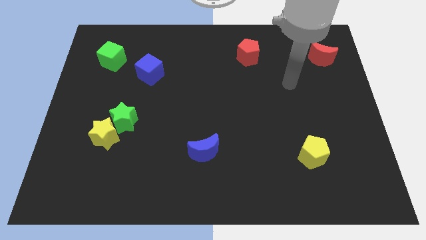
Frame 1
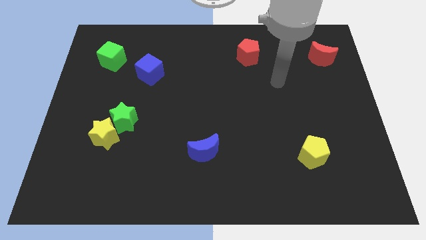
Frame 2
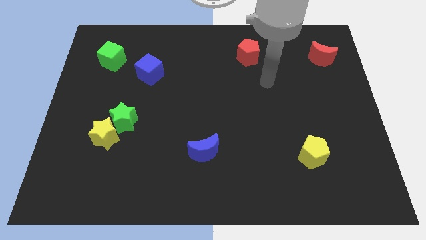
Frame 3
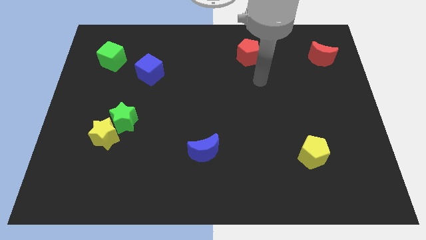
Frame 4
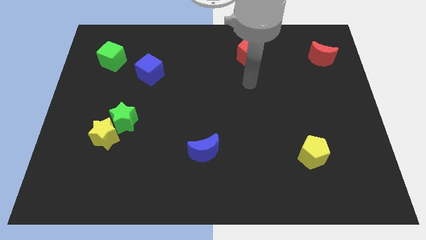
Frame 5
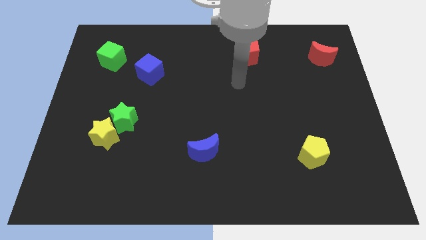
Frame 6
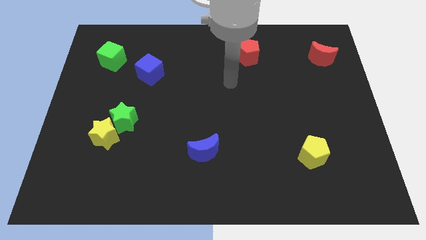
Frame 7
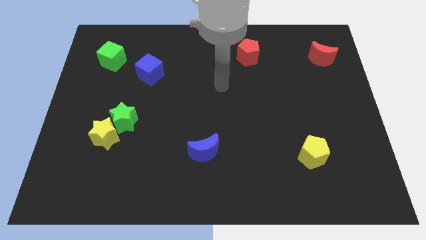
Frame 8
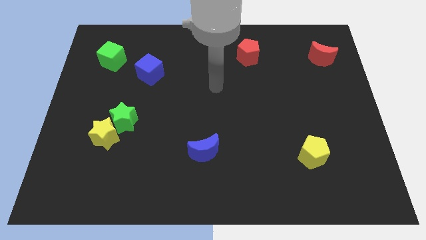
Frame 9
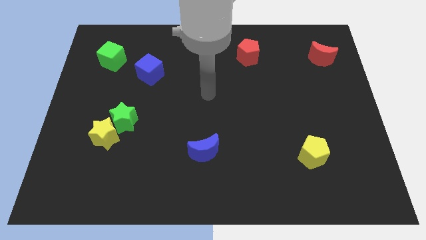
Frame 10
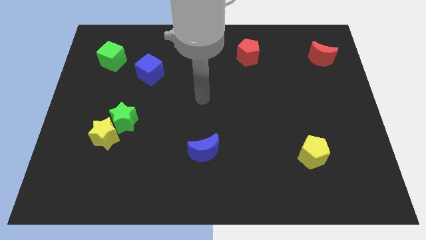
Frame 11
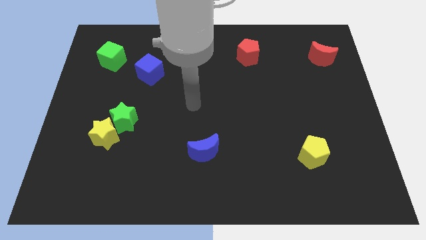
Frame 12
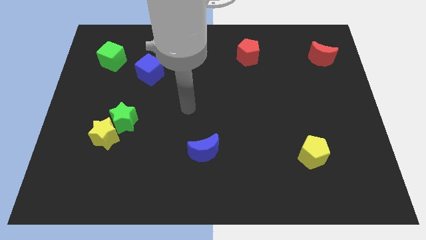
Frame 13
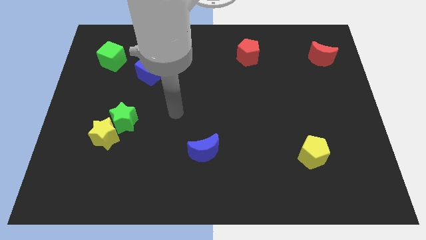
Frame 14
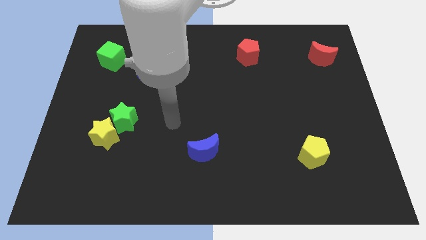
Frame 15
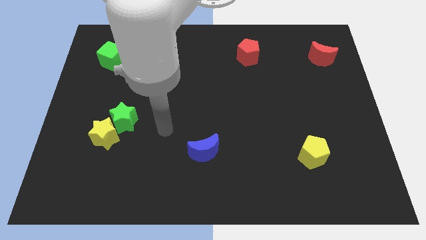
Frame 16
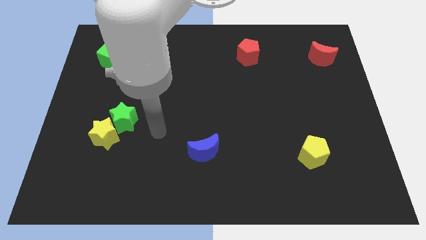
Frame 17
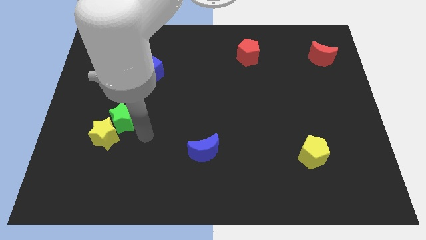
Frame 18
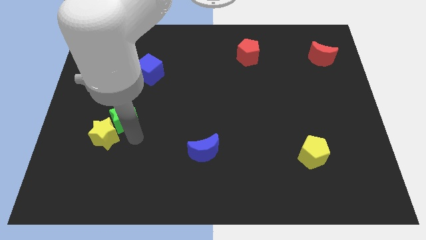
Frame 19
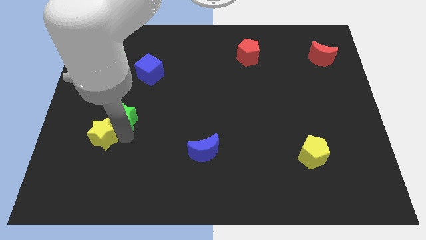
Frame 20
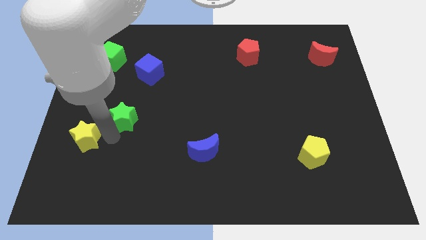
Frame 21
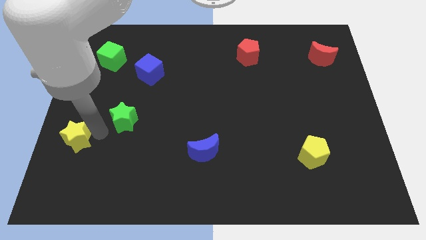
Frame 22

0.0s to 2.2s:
separate the green star from the yellow star

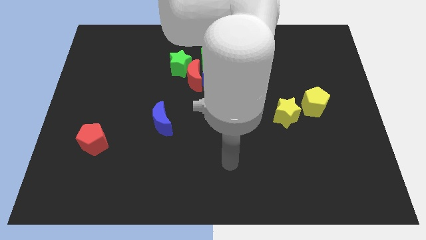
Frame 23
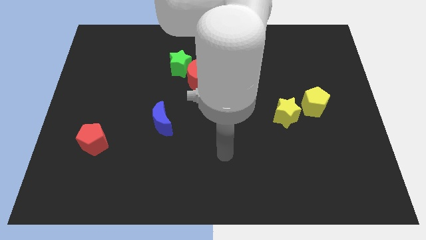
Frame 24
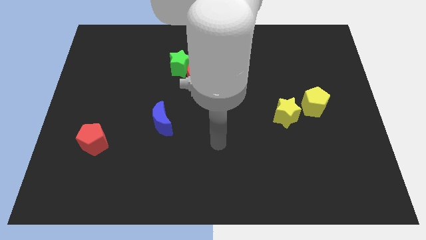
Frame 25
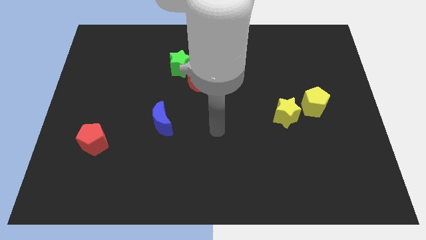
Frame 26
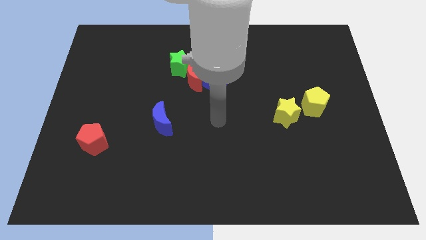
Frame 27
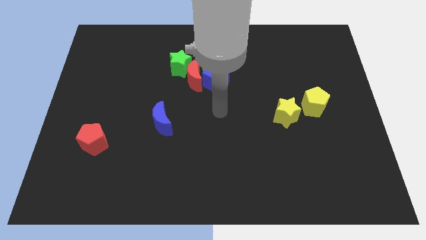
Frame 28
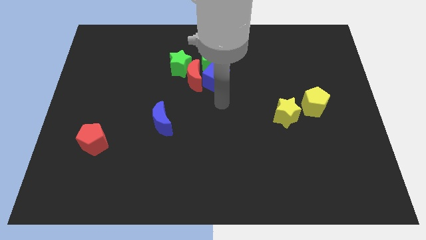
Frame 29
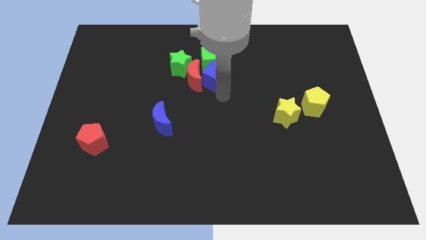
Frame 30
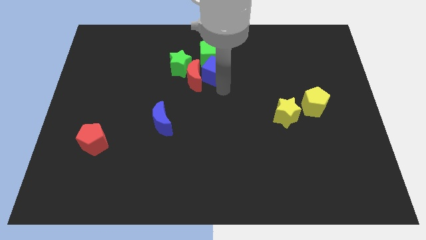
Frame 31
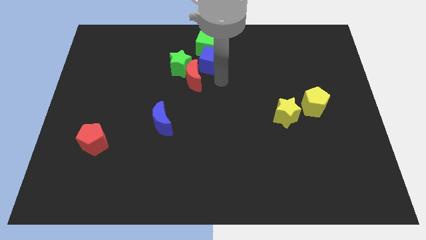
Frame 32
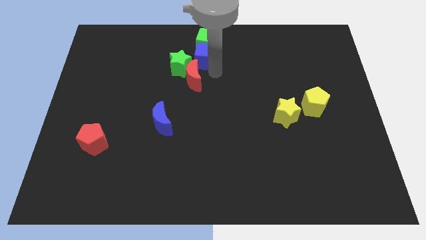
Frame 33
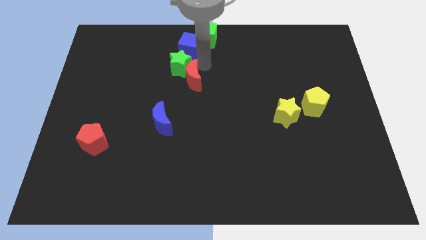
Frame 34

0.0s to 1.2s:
pull the red moon apart from the blue cube, green star, and green cube

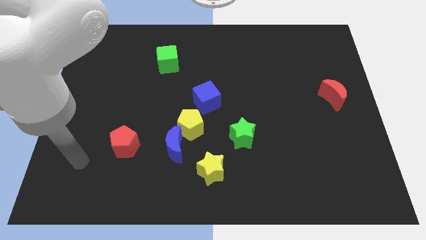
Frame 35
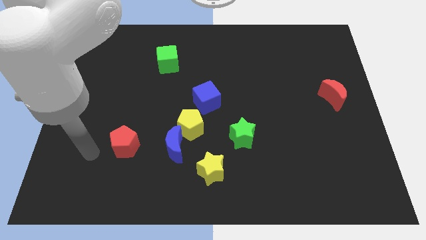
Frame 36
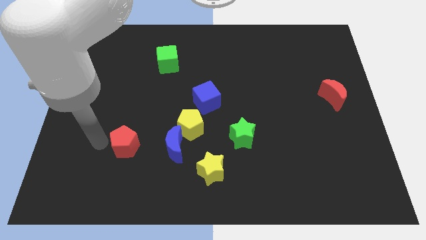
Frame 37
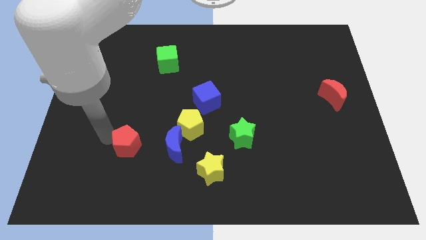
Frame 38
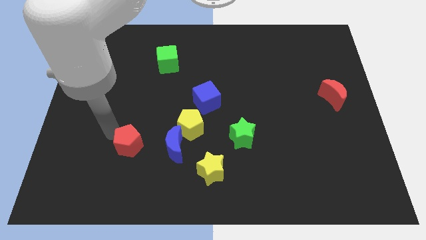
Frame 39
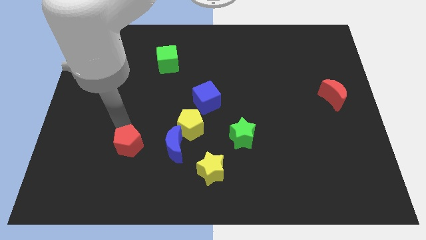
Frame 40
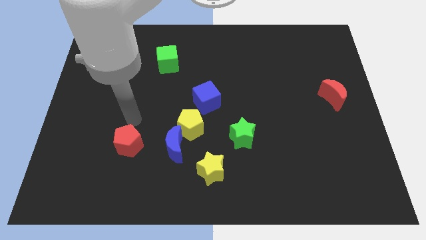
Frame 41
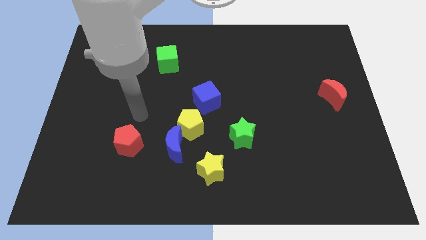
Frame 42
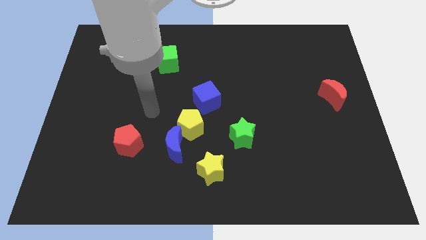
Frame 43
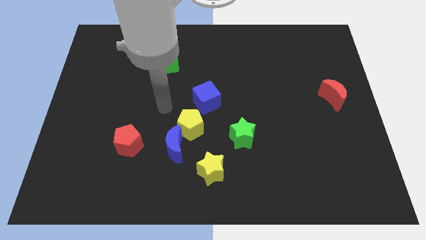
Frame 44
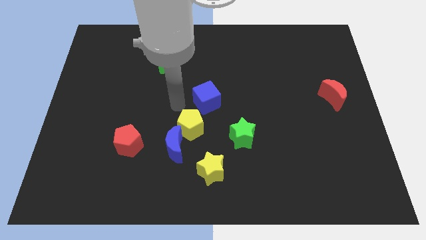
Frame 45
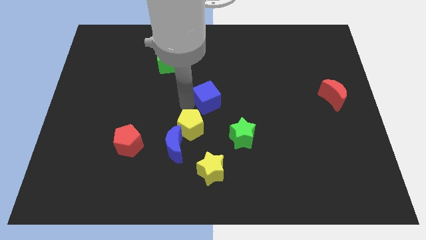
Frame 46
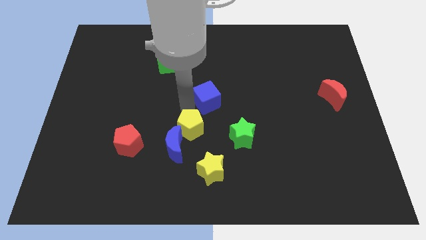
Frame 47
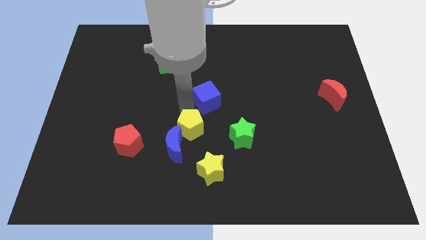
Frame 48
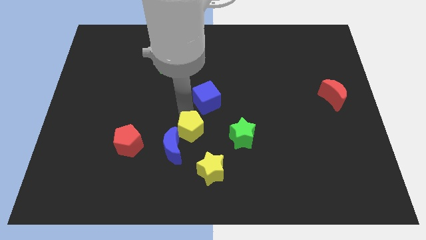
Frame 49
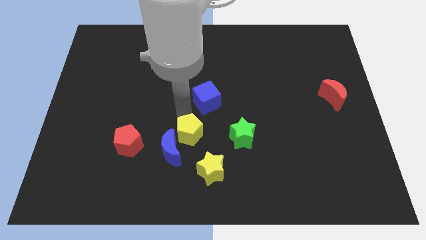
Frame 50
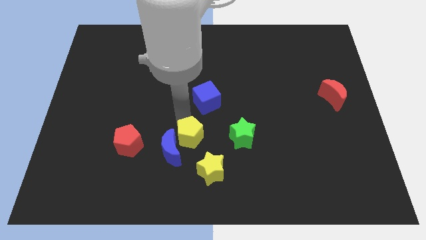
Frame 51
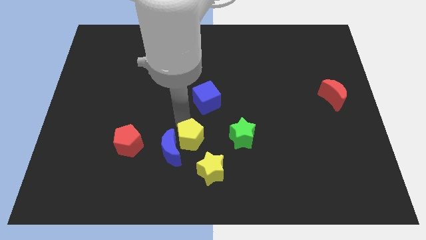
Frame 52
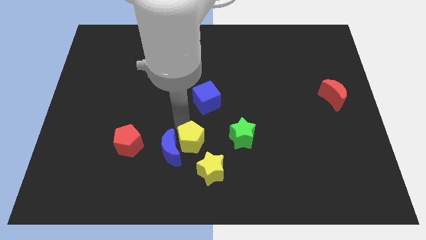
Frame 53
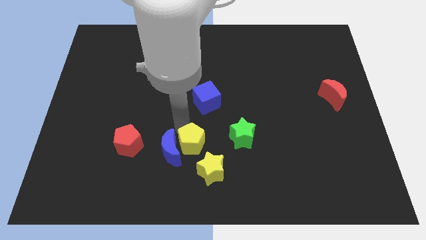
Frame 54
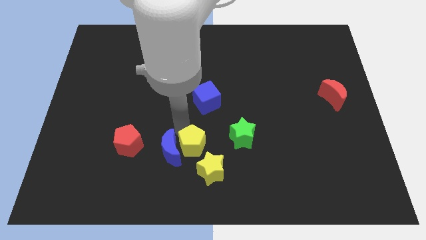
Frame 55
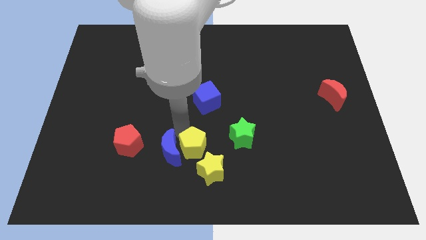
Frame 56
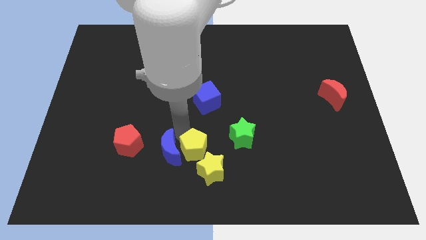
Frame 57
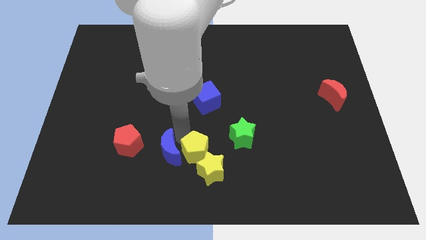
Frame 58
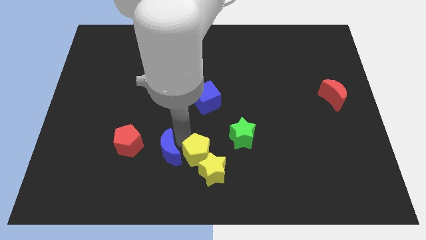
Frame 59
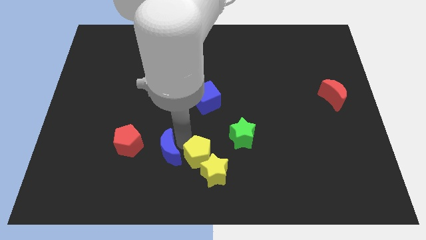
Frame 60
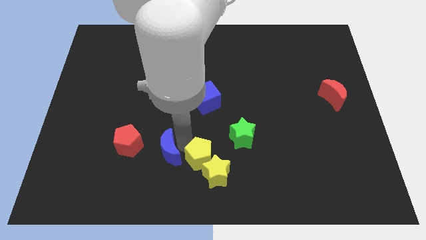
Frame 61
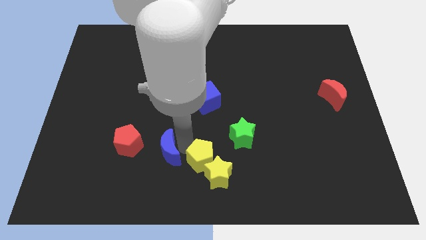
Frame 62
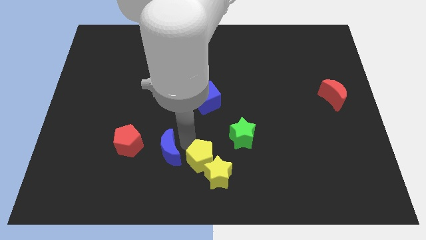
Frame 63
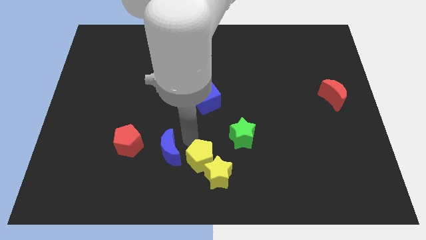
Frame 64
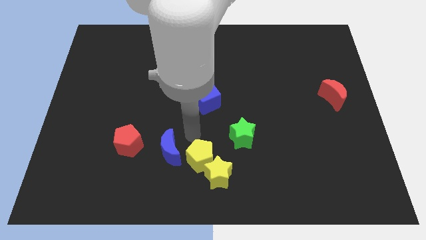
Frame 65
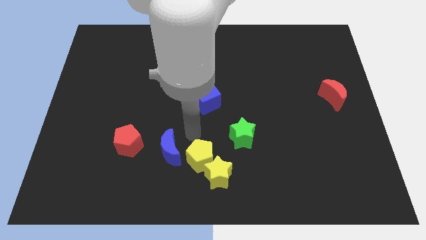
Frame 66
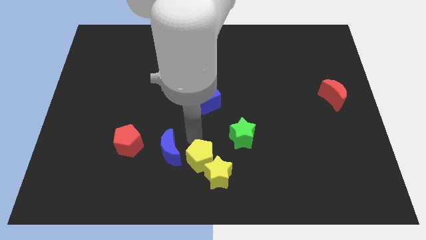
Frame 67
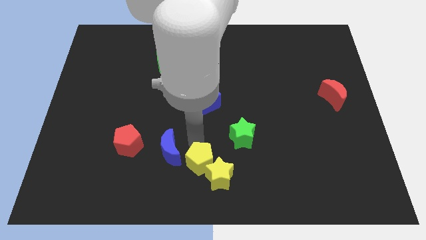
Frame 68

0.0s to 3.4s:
move the yellow pentagon away from the blue moon and blue cube

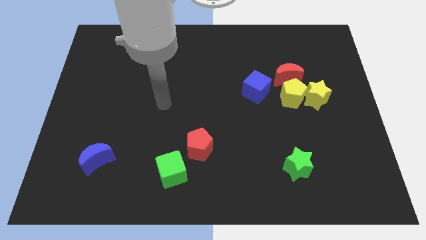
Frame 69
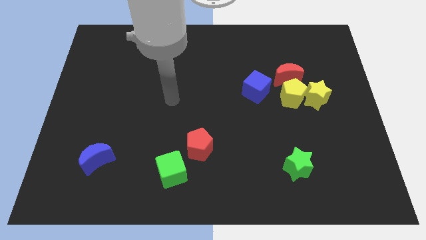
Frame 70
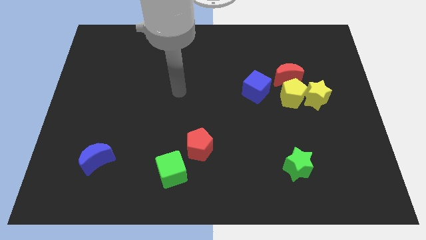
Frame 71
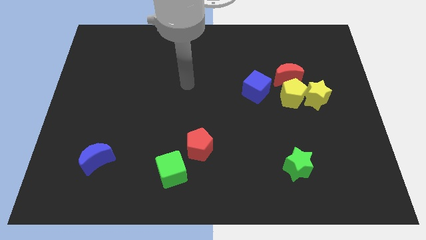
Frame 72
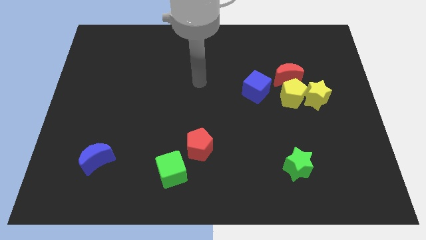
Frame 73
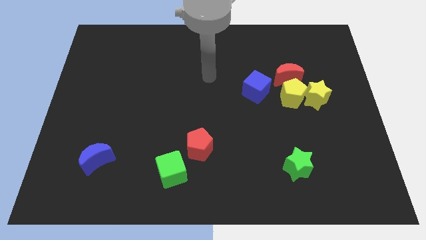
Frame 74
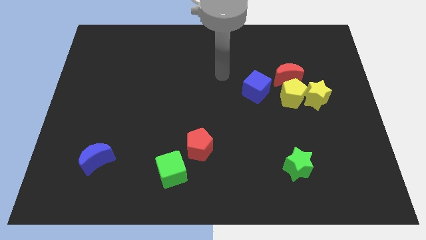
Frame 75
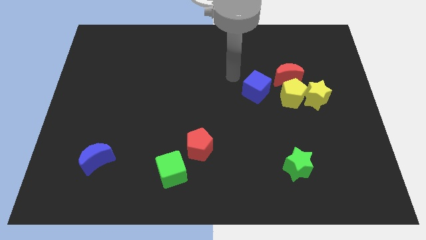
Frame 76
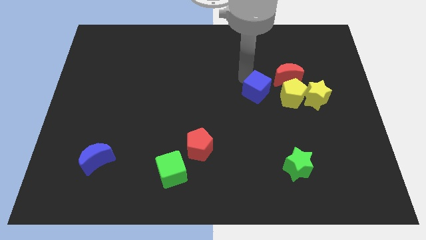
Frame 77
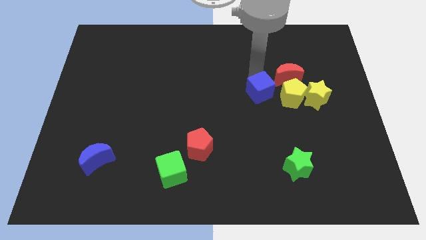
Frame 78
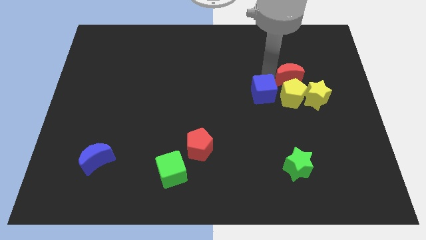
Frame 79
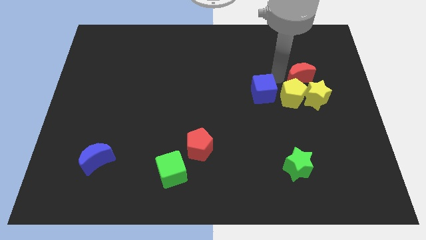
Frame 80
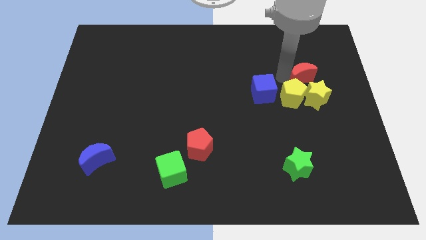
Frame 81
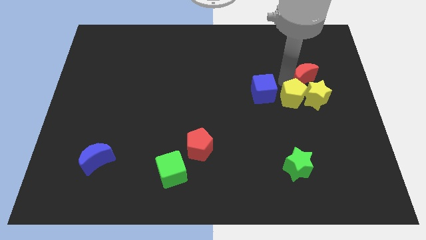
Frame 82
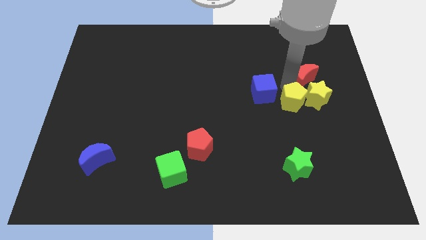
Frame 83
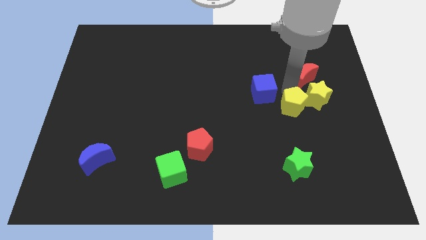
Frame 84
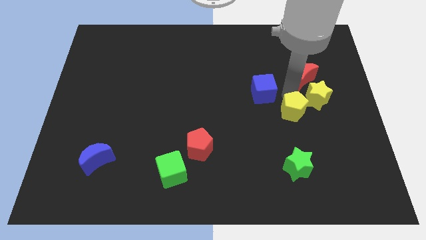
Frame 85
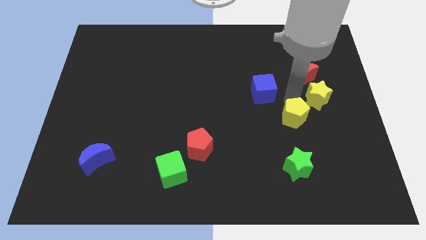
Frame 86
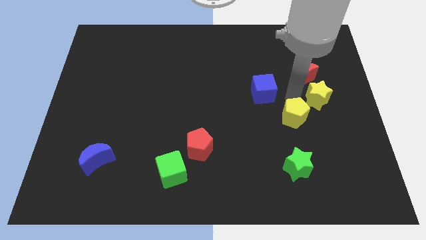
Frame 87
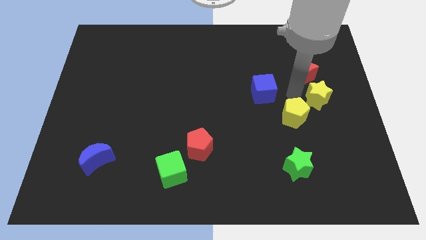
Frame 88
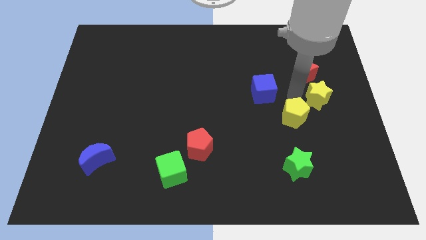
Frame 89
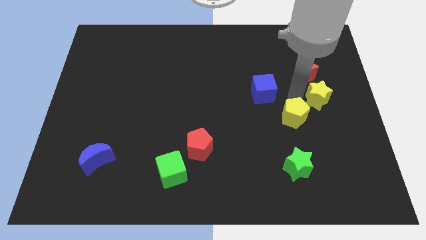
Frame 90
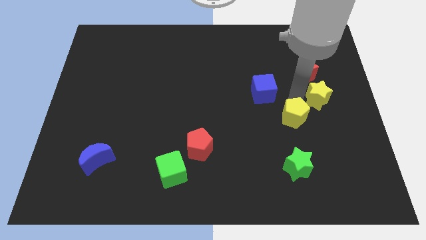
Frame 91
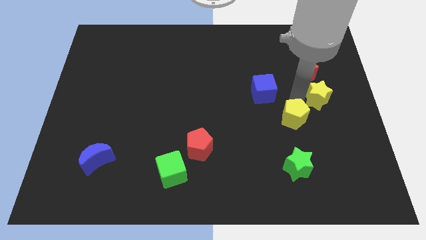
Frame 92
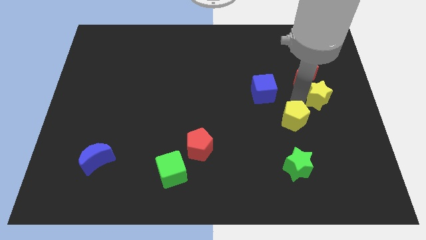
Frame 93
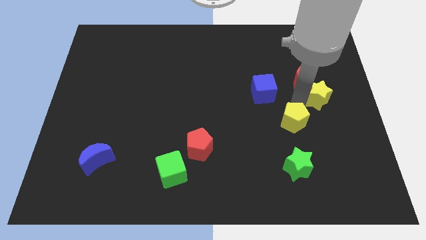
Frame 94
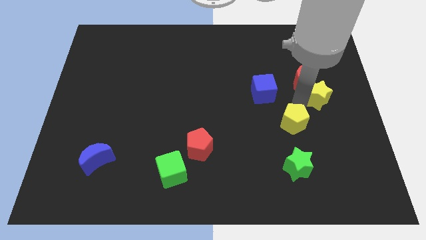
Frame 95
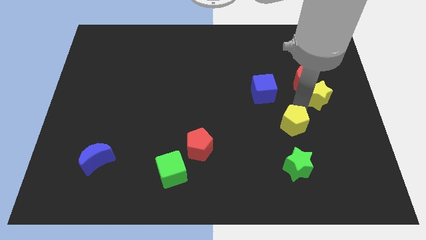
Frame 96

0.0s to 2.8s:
pull the yellow pentagon apart from the clump
